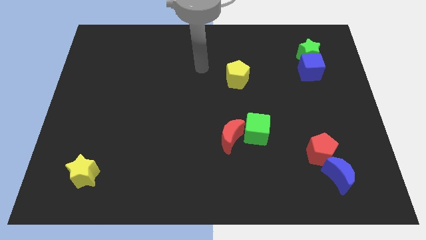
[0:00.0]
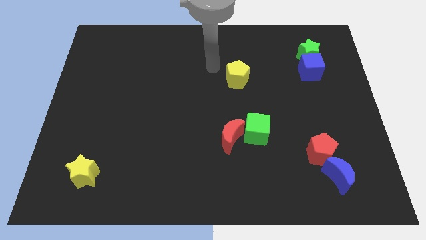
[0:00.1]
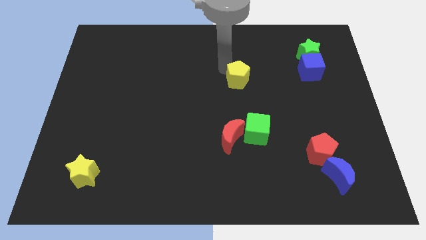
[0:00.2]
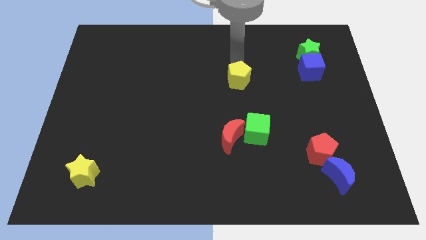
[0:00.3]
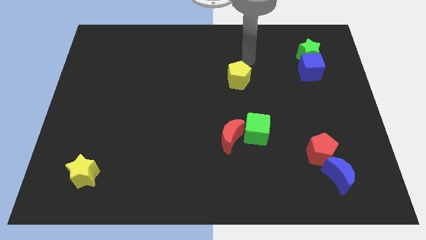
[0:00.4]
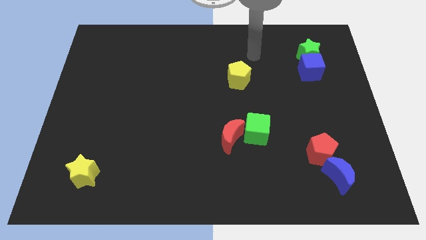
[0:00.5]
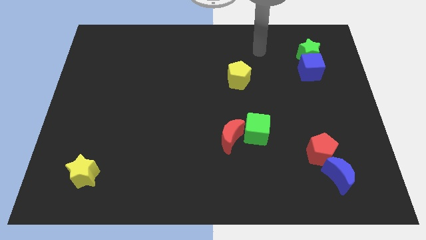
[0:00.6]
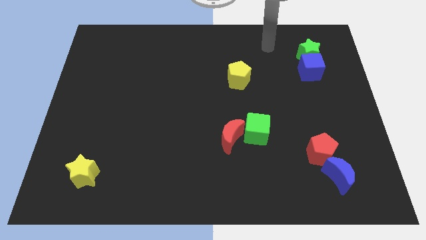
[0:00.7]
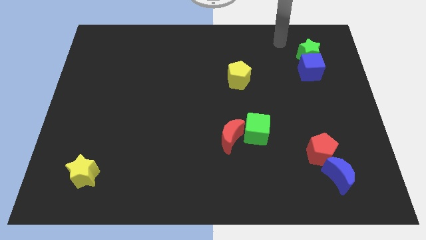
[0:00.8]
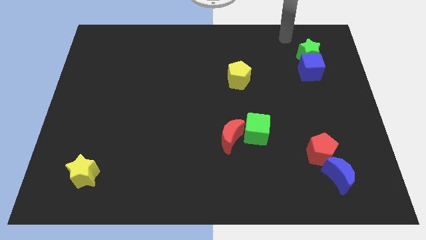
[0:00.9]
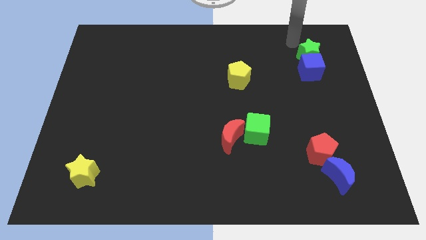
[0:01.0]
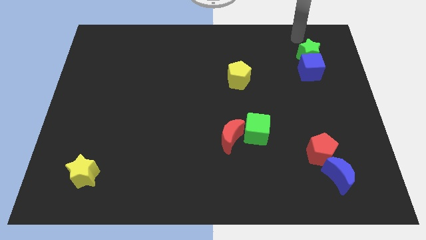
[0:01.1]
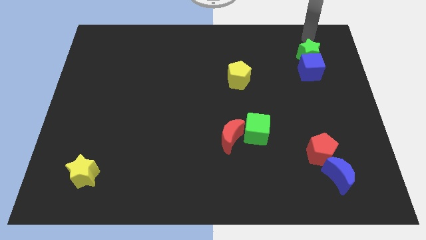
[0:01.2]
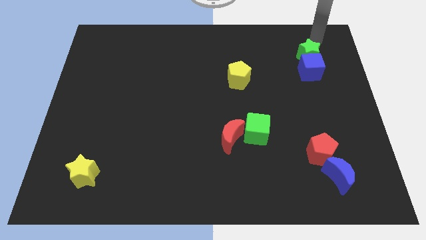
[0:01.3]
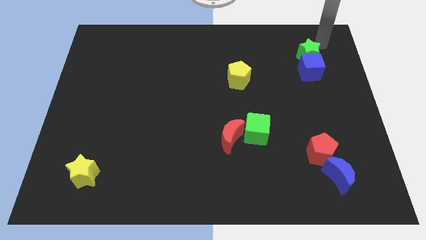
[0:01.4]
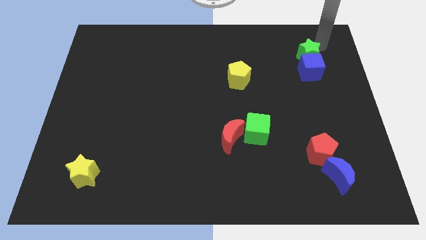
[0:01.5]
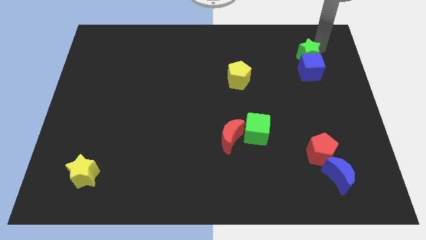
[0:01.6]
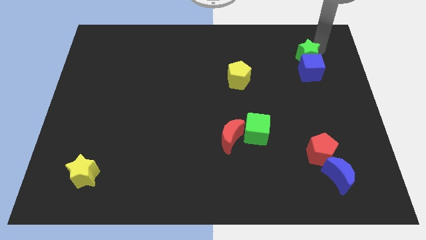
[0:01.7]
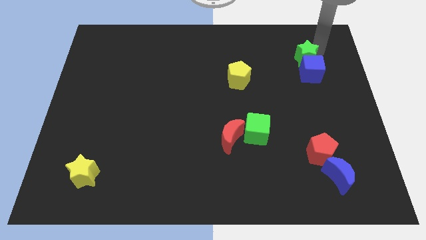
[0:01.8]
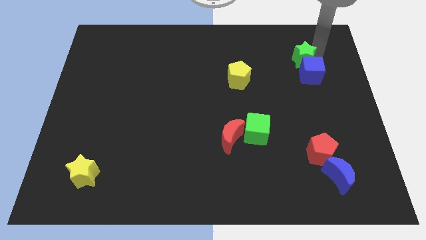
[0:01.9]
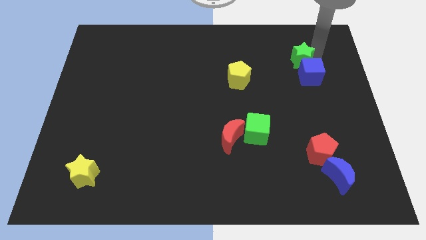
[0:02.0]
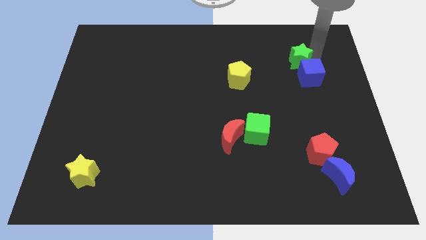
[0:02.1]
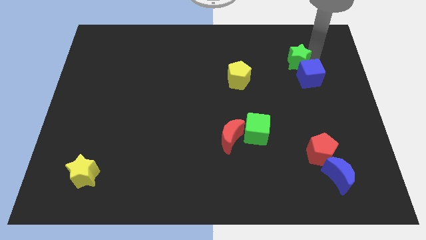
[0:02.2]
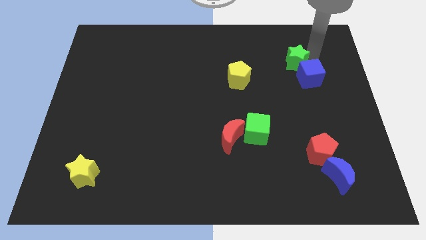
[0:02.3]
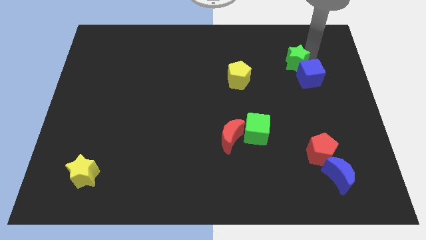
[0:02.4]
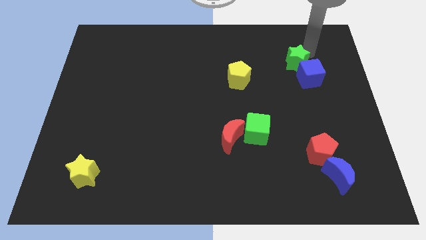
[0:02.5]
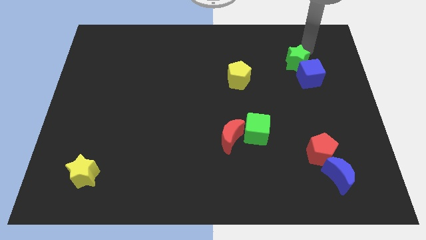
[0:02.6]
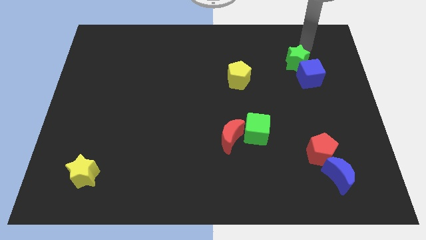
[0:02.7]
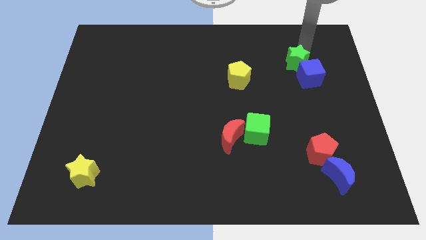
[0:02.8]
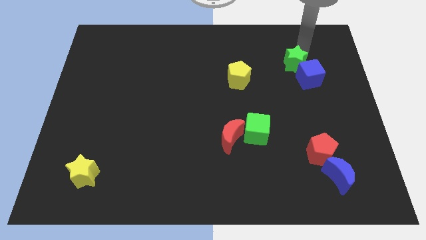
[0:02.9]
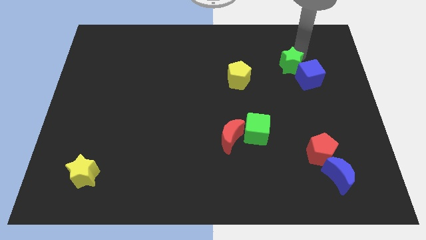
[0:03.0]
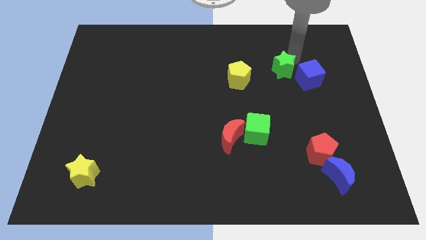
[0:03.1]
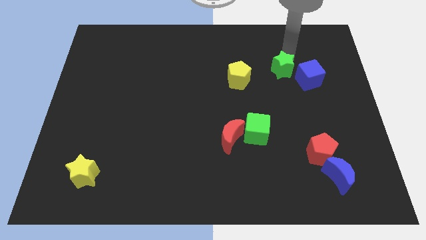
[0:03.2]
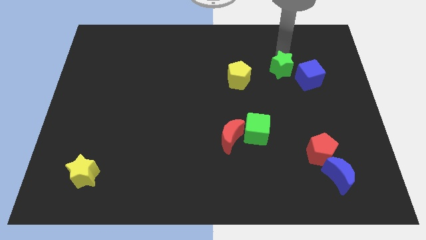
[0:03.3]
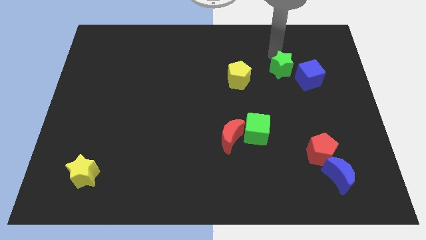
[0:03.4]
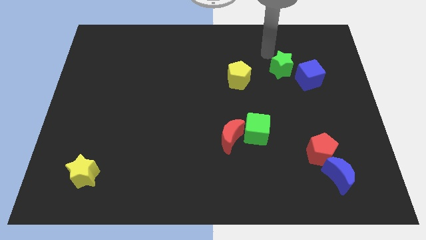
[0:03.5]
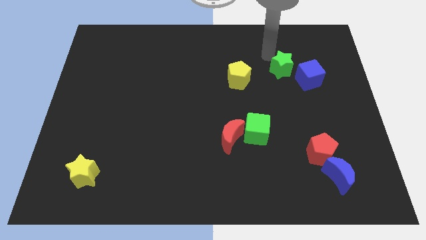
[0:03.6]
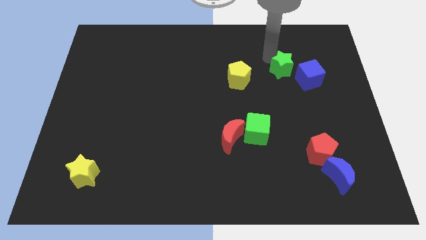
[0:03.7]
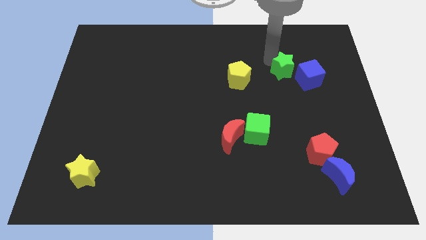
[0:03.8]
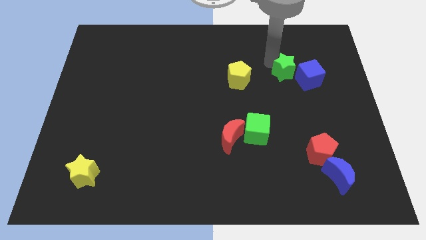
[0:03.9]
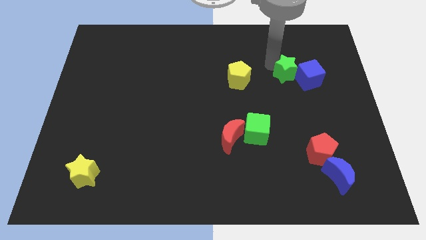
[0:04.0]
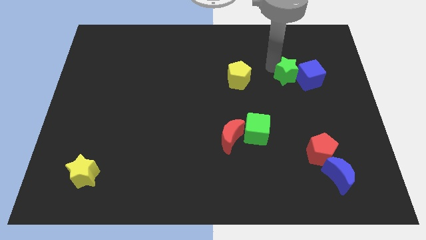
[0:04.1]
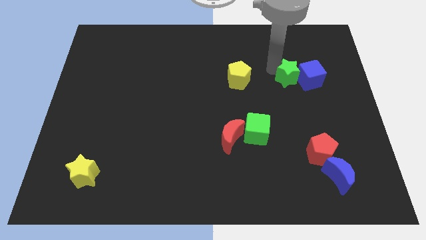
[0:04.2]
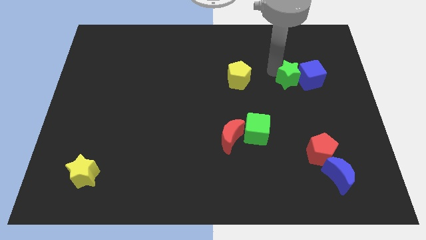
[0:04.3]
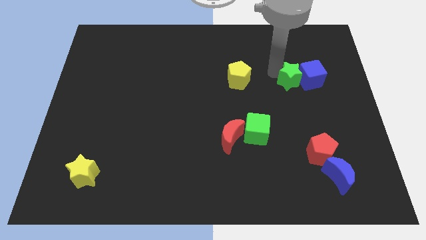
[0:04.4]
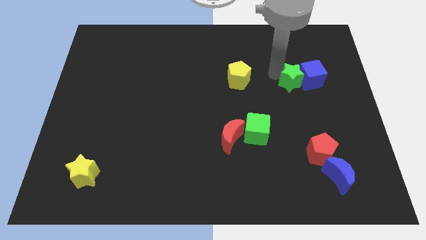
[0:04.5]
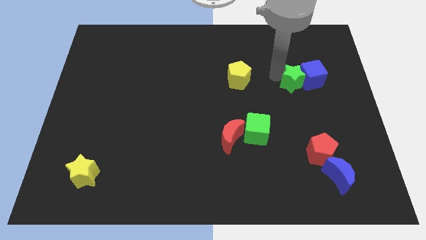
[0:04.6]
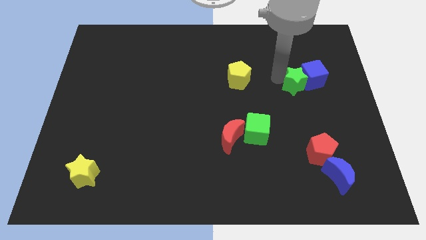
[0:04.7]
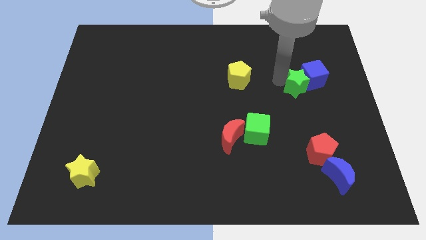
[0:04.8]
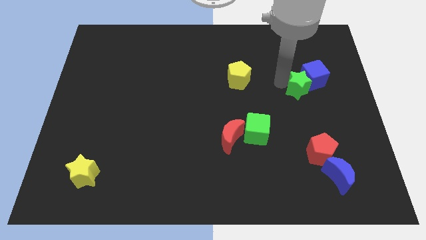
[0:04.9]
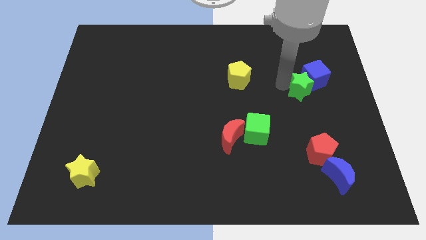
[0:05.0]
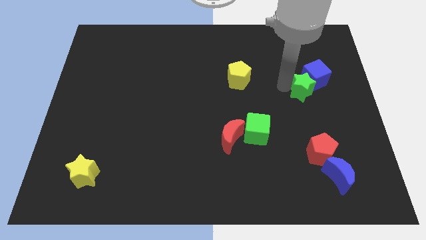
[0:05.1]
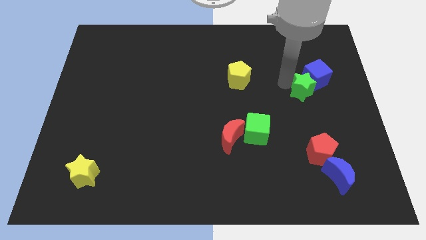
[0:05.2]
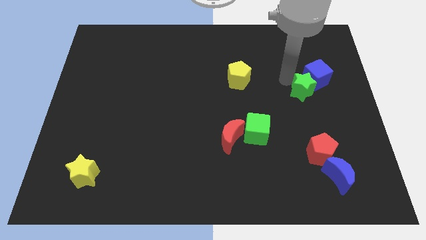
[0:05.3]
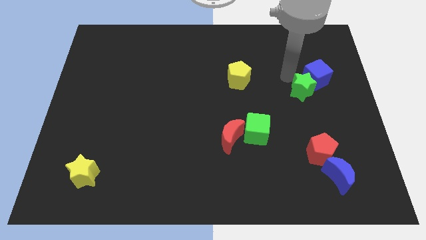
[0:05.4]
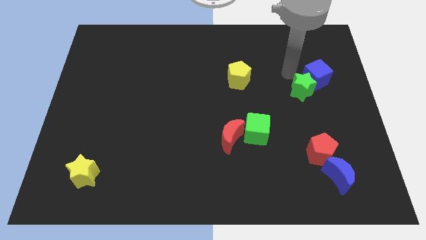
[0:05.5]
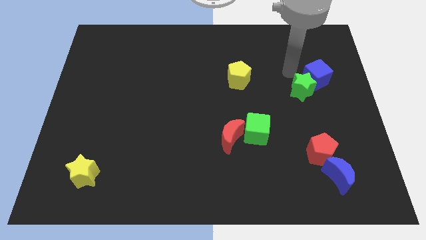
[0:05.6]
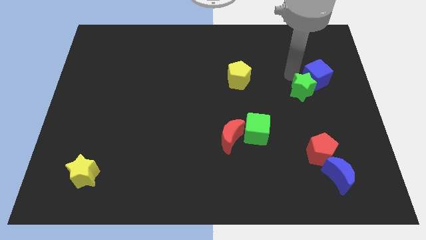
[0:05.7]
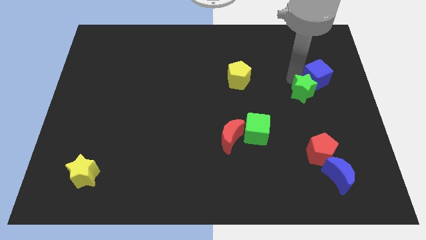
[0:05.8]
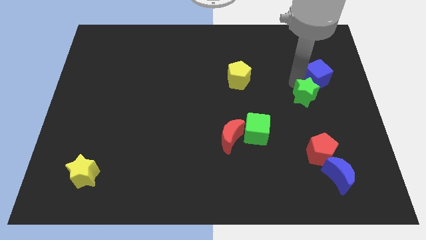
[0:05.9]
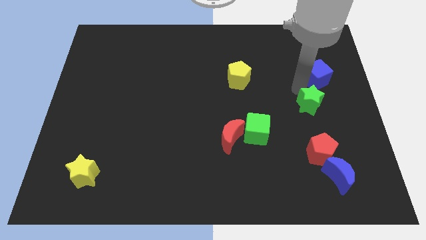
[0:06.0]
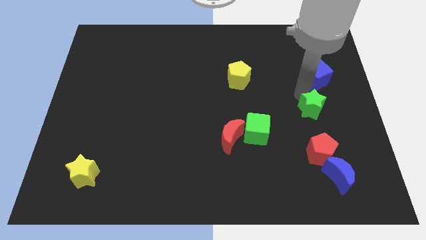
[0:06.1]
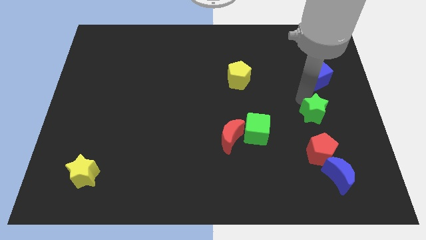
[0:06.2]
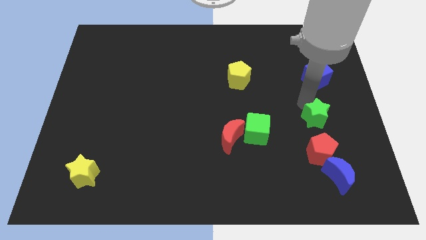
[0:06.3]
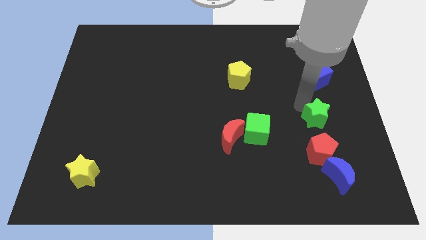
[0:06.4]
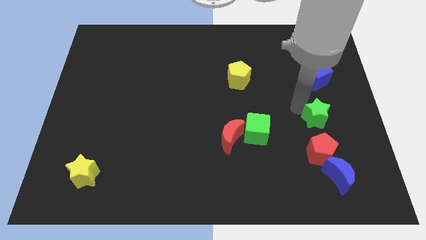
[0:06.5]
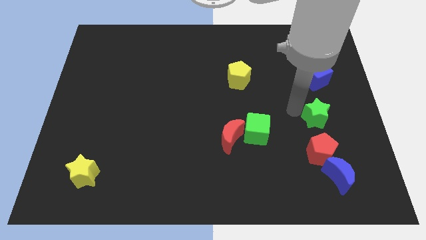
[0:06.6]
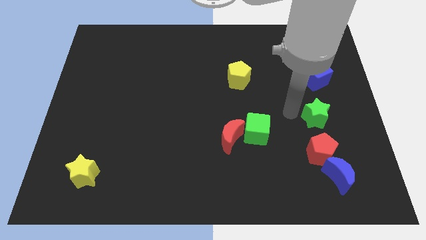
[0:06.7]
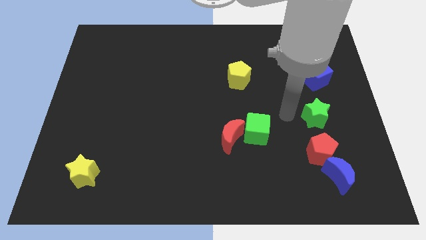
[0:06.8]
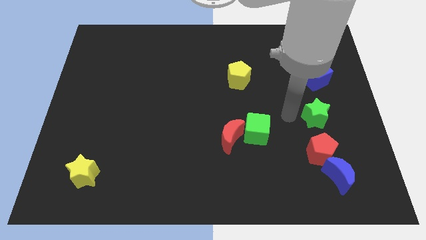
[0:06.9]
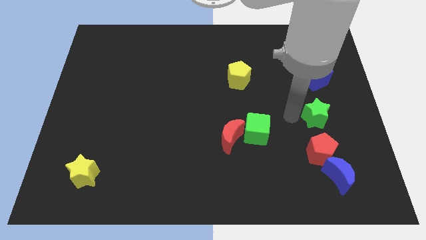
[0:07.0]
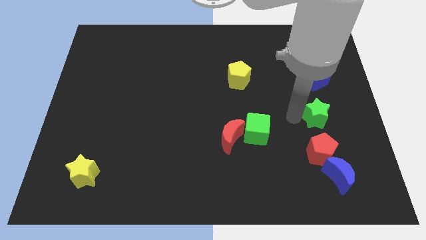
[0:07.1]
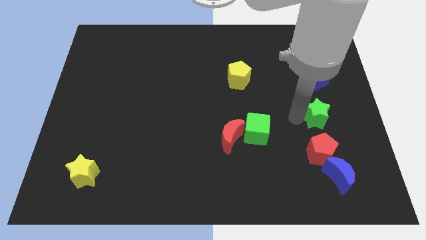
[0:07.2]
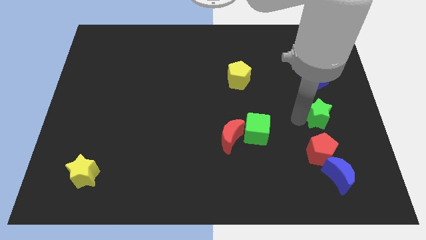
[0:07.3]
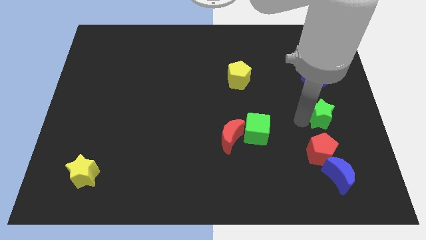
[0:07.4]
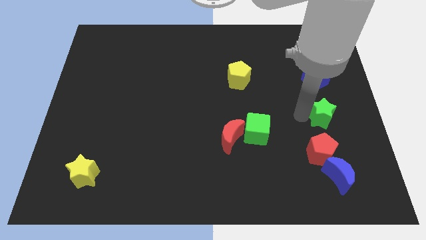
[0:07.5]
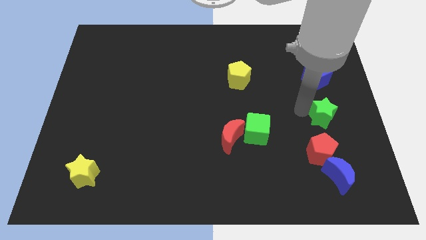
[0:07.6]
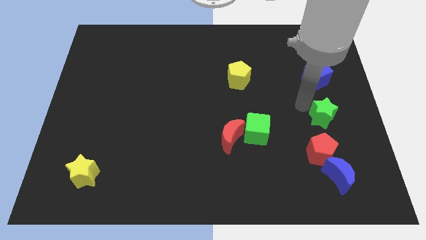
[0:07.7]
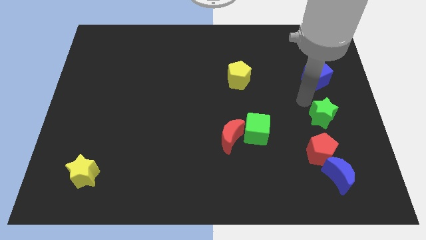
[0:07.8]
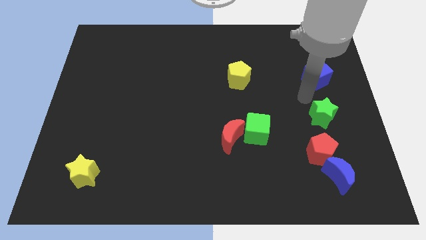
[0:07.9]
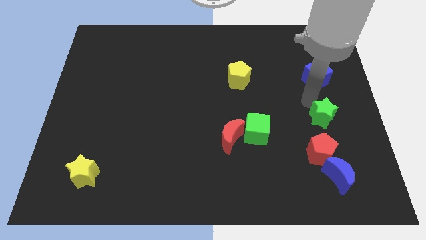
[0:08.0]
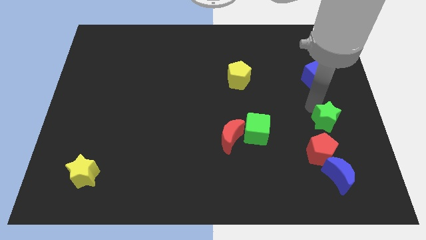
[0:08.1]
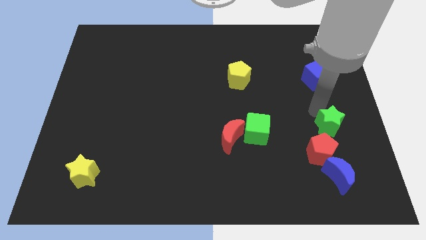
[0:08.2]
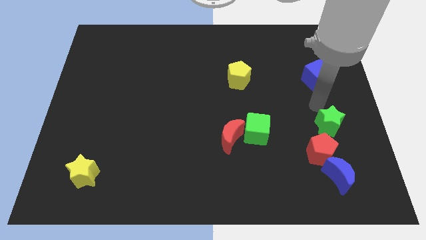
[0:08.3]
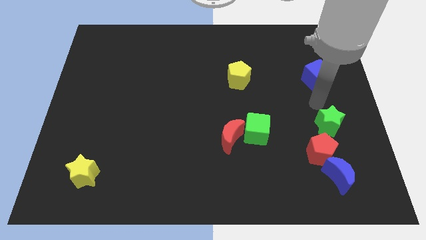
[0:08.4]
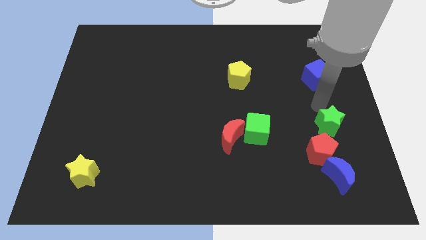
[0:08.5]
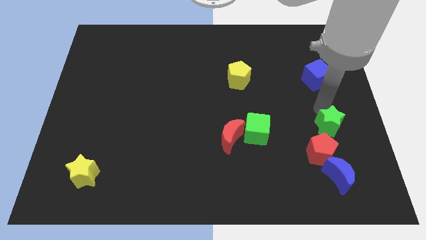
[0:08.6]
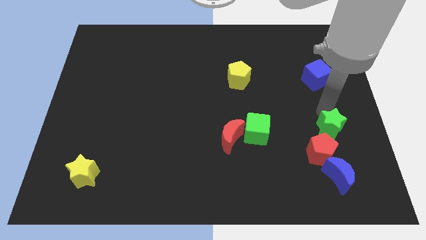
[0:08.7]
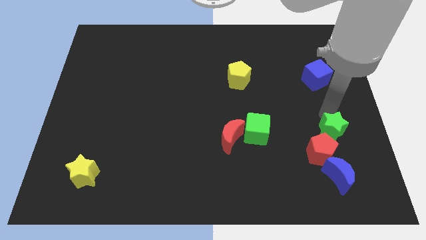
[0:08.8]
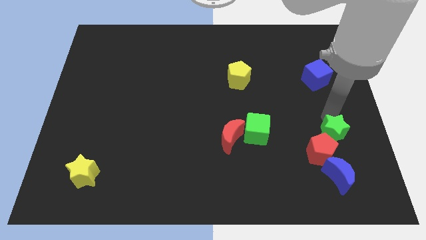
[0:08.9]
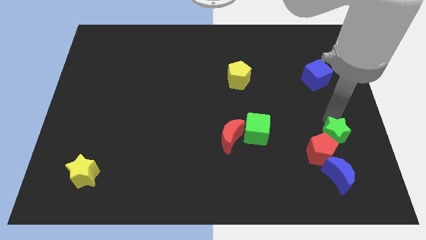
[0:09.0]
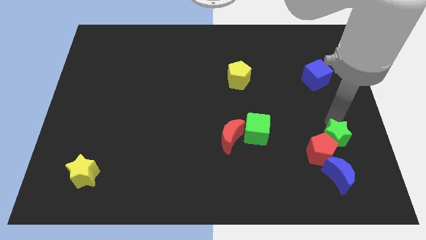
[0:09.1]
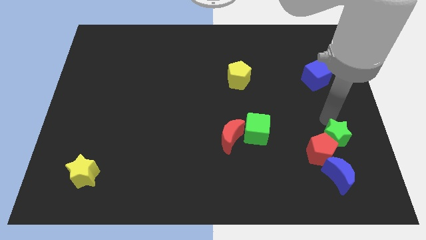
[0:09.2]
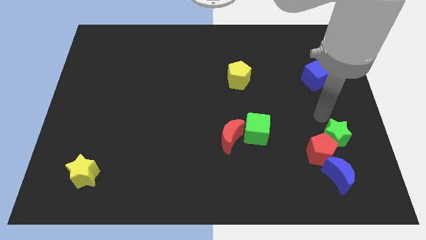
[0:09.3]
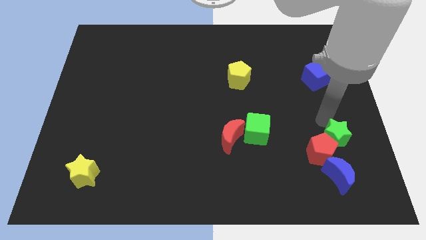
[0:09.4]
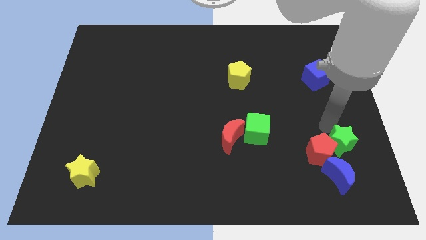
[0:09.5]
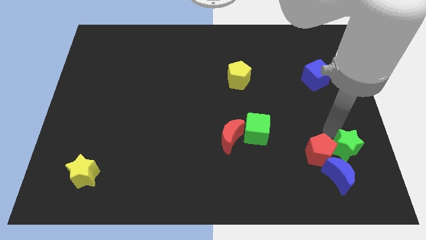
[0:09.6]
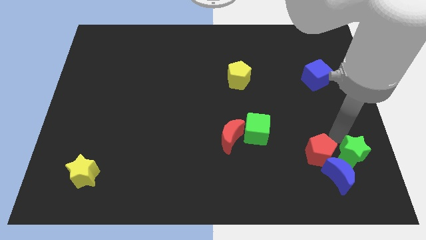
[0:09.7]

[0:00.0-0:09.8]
push the green star to the blue moon
